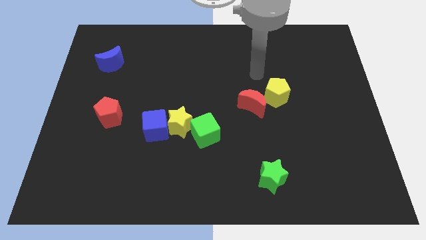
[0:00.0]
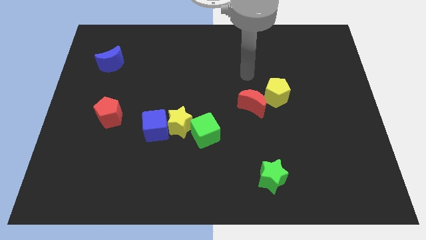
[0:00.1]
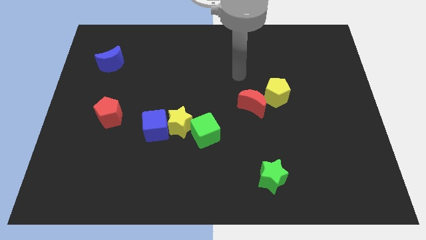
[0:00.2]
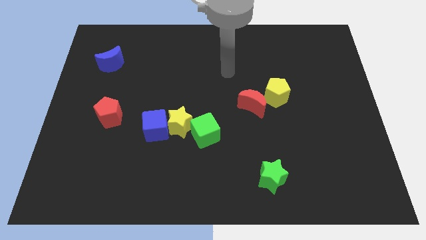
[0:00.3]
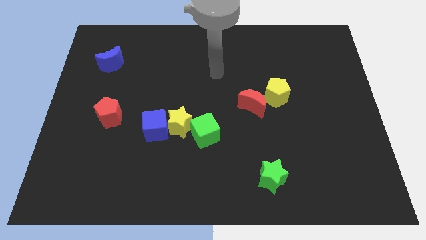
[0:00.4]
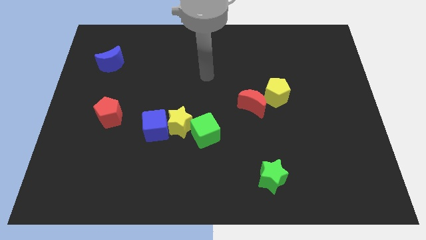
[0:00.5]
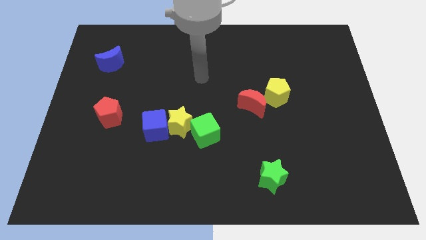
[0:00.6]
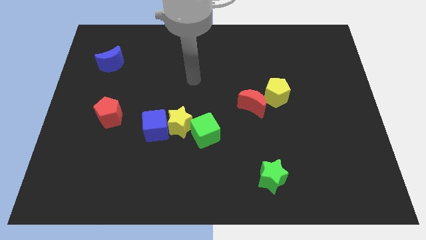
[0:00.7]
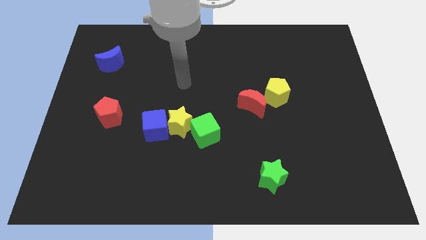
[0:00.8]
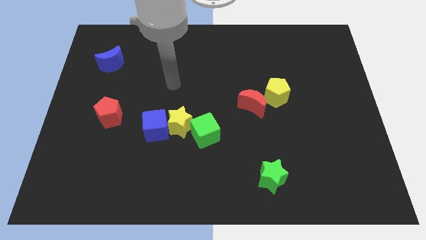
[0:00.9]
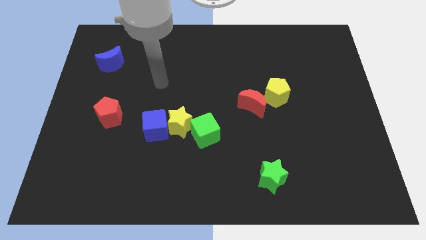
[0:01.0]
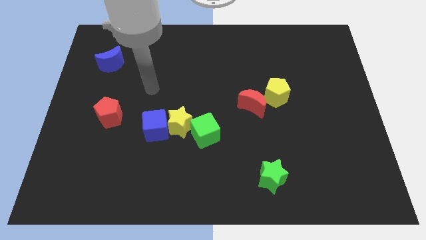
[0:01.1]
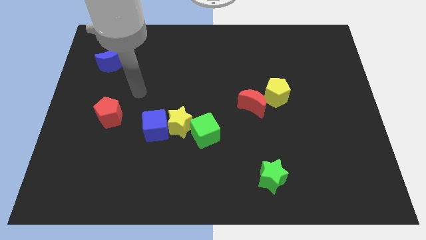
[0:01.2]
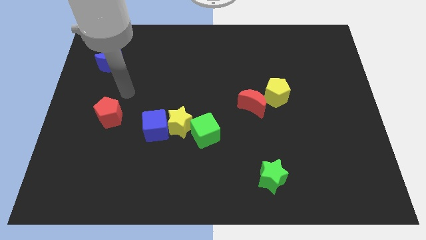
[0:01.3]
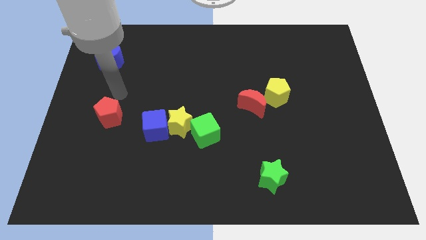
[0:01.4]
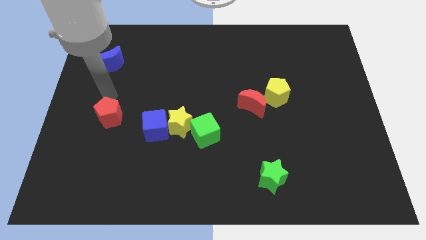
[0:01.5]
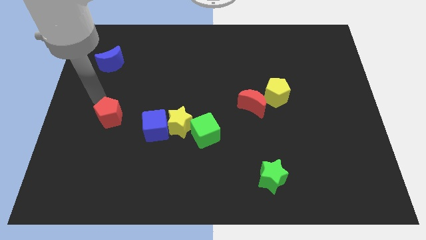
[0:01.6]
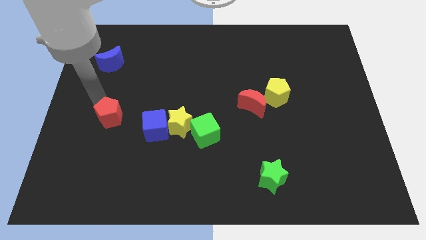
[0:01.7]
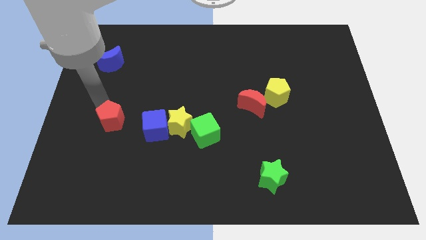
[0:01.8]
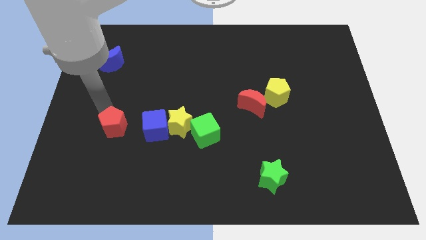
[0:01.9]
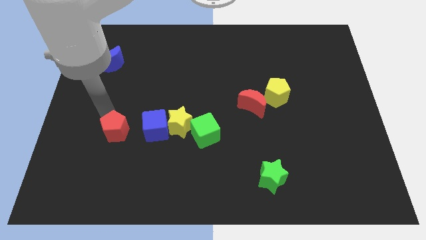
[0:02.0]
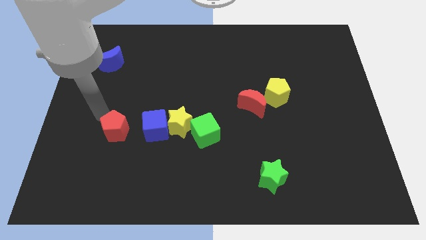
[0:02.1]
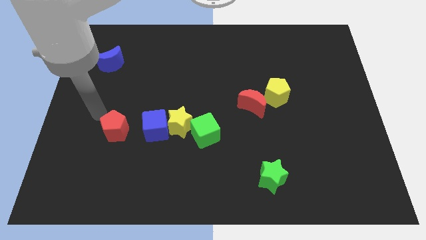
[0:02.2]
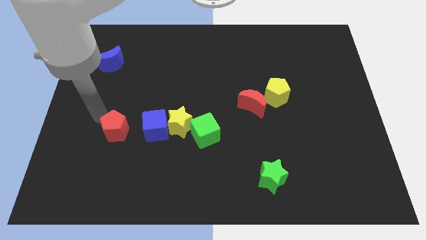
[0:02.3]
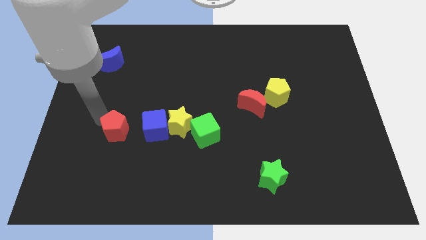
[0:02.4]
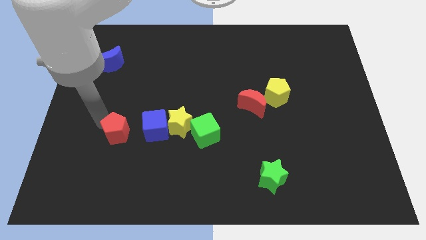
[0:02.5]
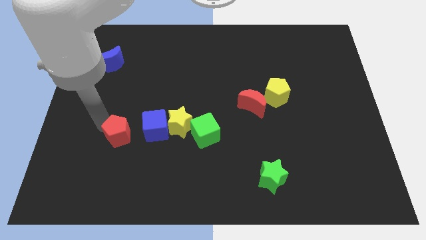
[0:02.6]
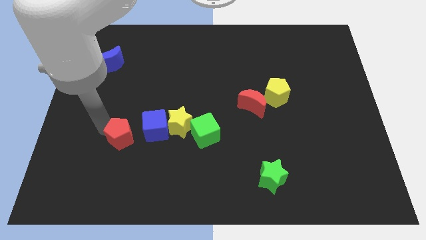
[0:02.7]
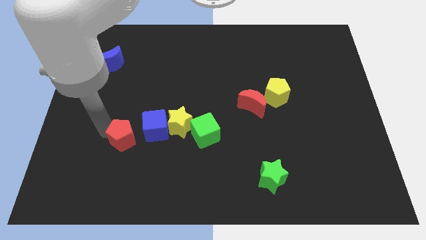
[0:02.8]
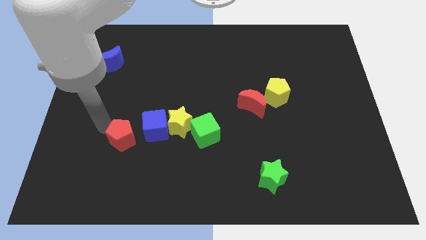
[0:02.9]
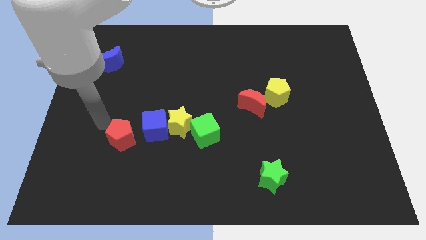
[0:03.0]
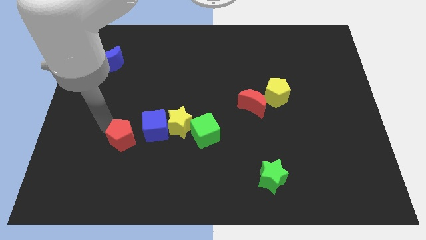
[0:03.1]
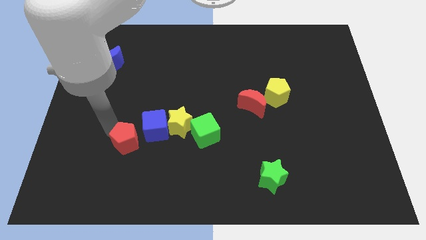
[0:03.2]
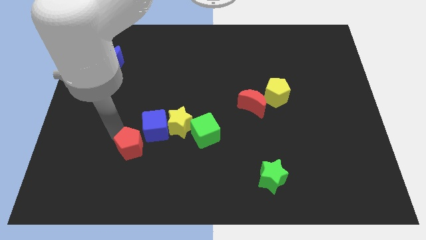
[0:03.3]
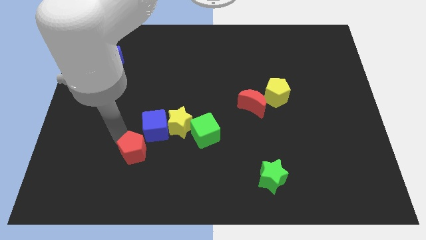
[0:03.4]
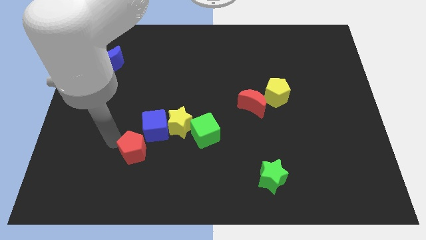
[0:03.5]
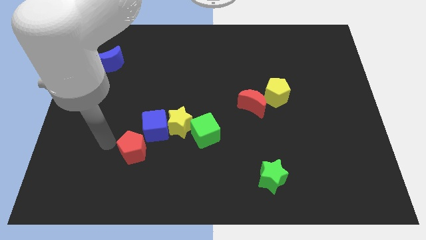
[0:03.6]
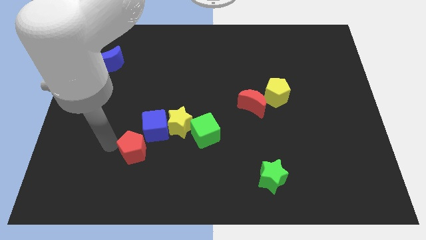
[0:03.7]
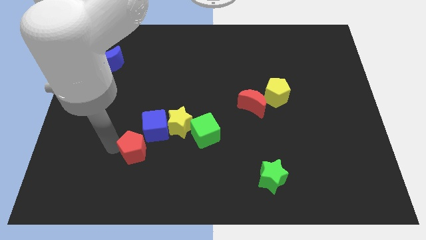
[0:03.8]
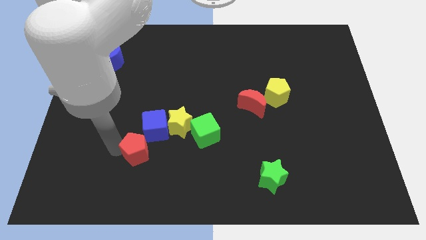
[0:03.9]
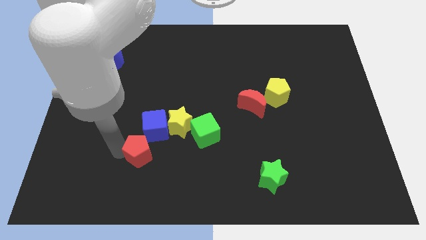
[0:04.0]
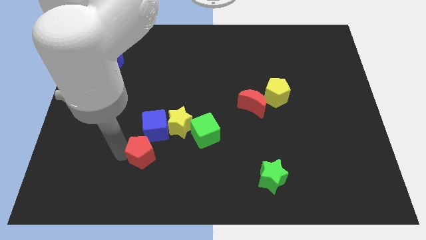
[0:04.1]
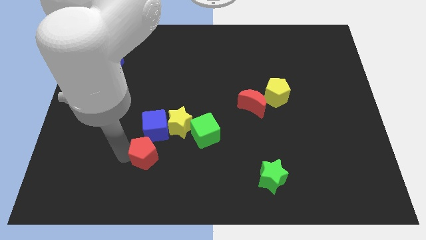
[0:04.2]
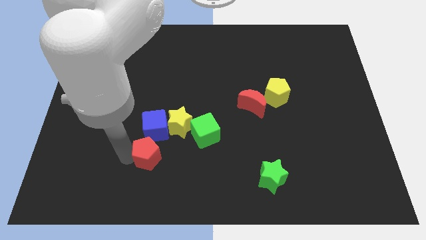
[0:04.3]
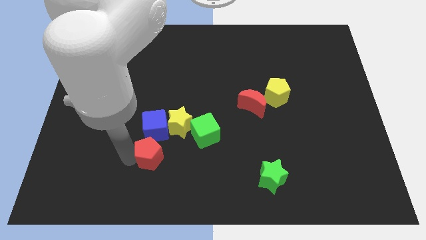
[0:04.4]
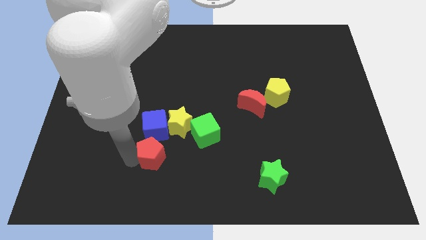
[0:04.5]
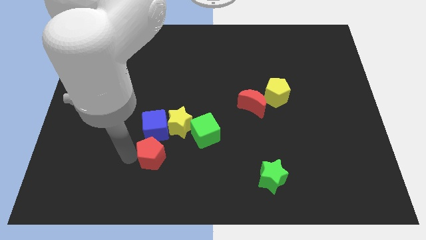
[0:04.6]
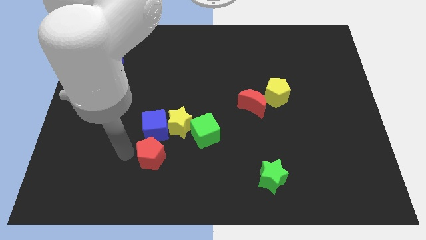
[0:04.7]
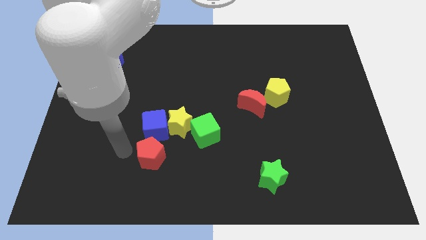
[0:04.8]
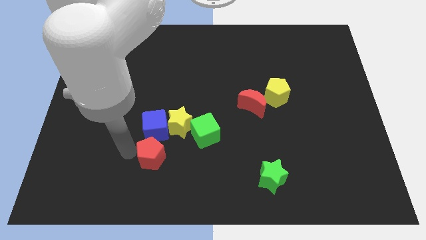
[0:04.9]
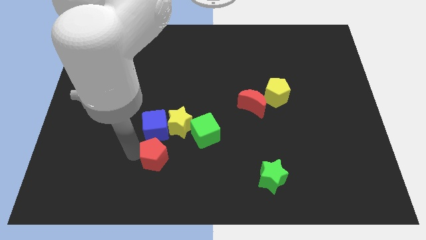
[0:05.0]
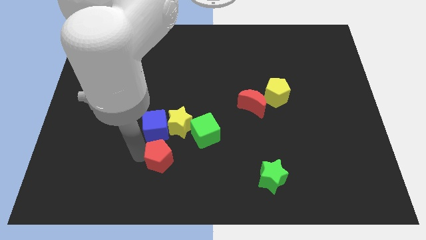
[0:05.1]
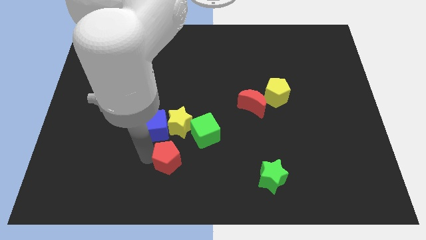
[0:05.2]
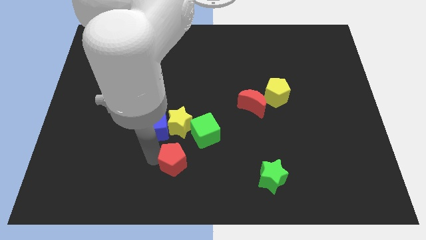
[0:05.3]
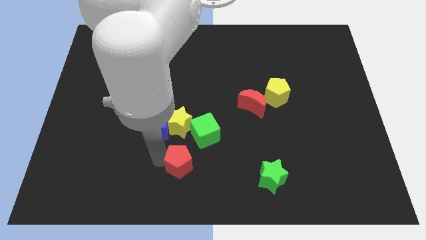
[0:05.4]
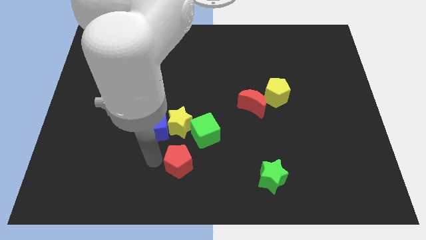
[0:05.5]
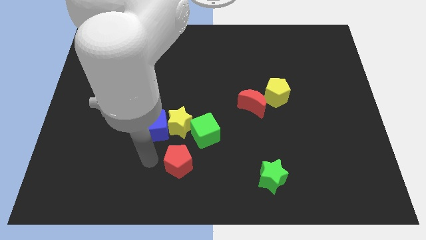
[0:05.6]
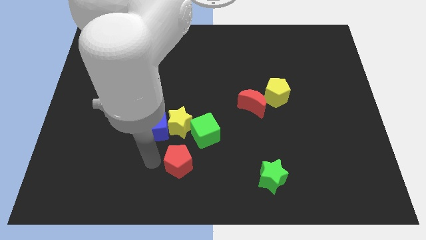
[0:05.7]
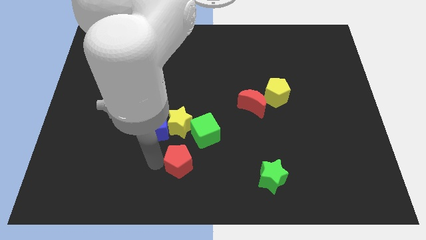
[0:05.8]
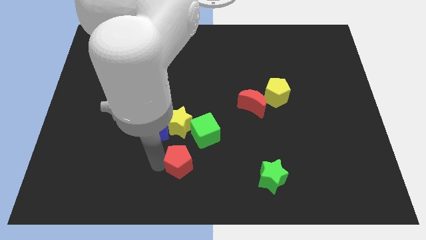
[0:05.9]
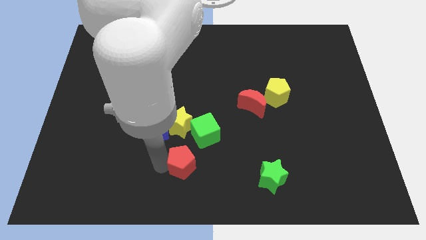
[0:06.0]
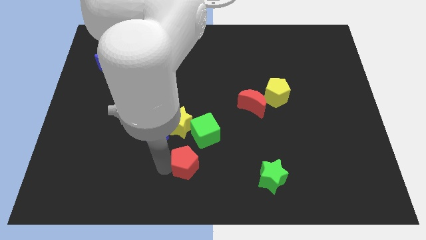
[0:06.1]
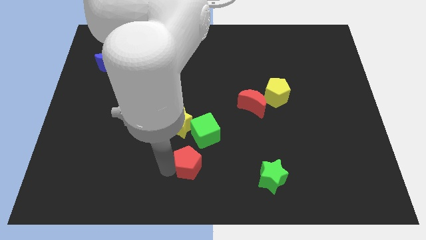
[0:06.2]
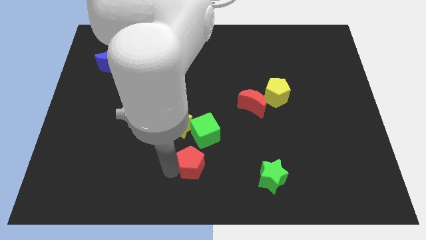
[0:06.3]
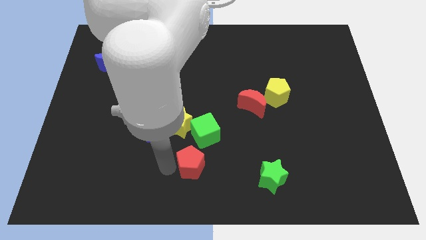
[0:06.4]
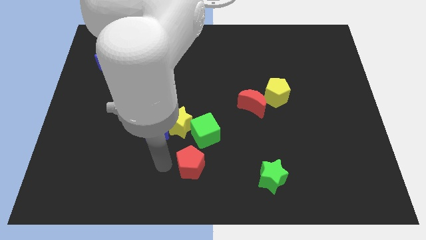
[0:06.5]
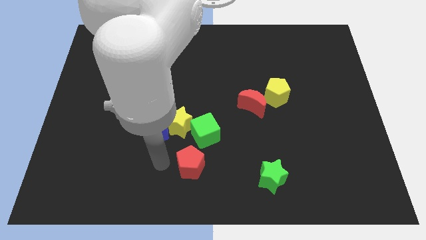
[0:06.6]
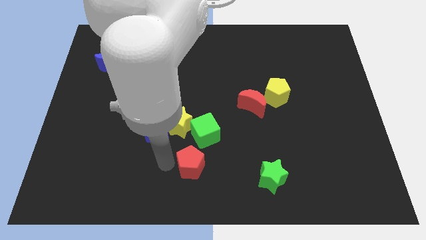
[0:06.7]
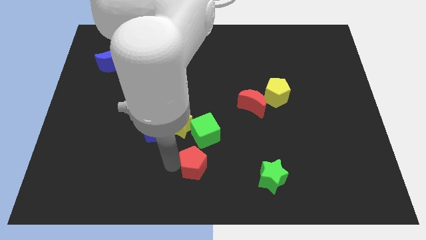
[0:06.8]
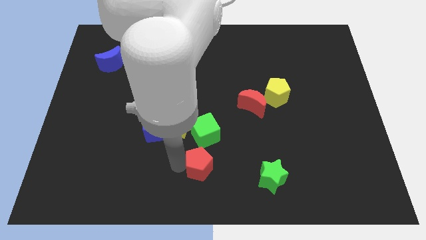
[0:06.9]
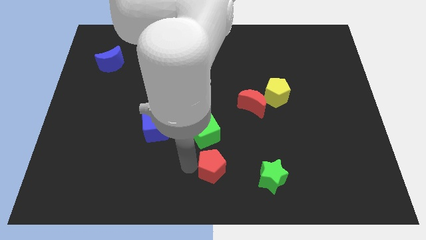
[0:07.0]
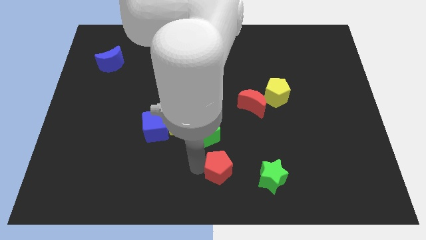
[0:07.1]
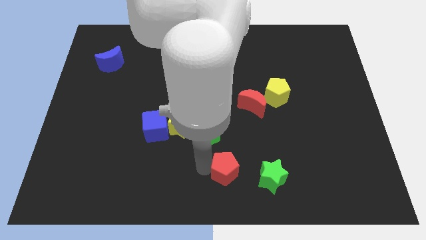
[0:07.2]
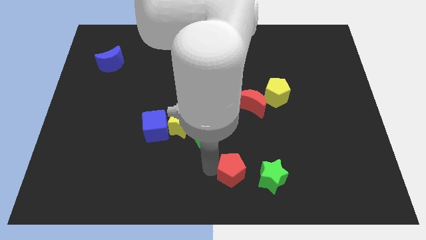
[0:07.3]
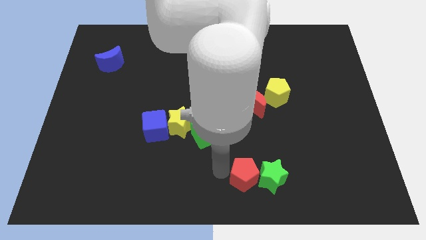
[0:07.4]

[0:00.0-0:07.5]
slide the red pentagon to the green star

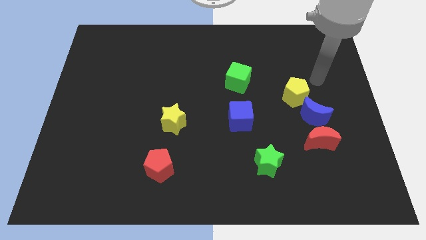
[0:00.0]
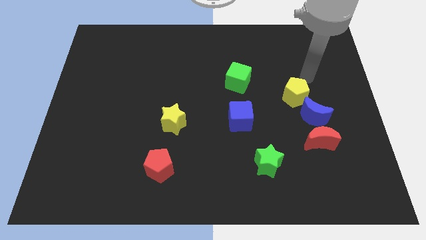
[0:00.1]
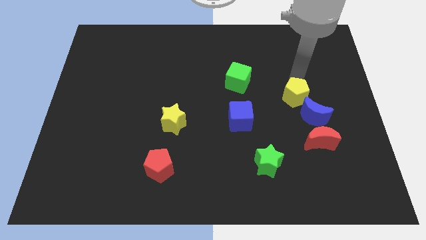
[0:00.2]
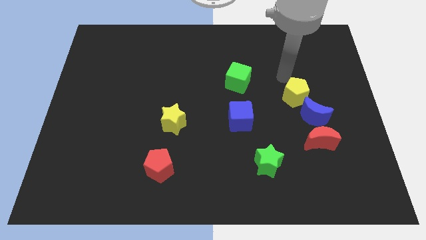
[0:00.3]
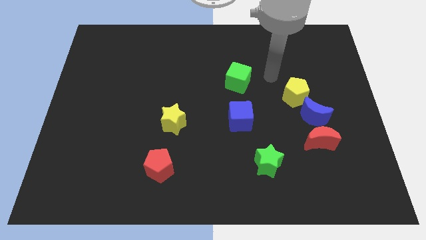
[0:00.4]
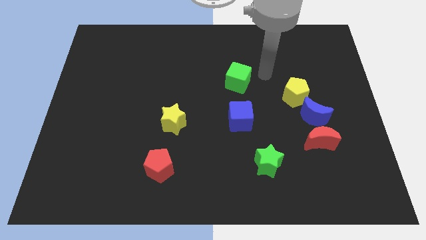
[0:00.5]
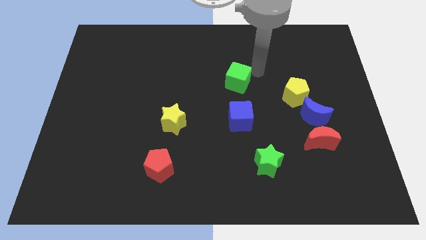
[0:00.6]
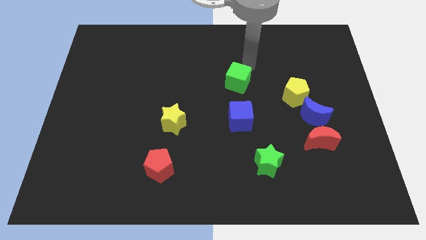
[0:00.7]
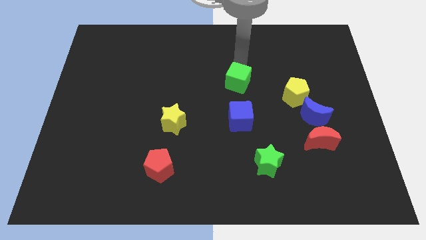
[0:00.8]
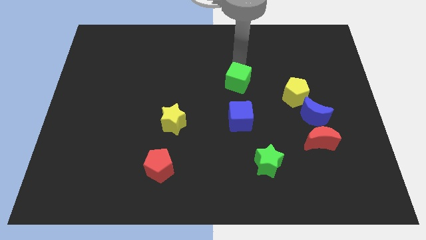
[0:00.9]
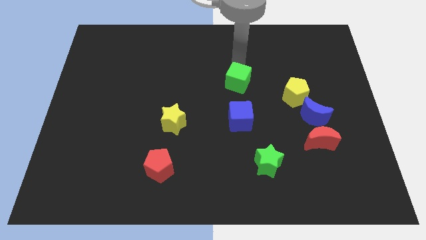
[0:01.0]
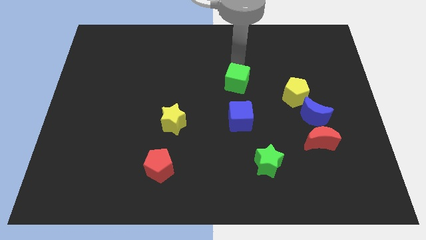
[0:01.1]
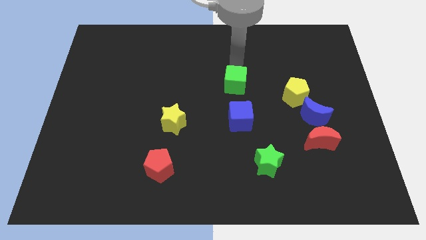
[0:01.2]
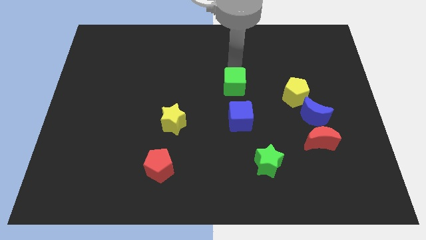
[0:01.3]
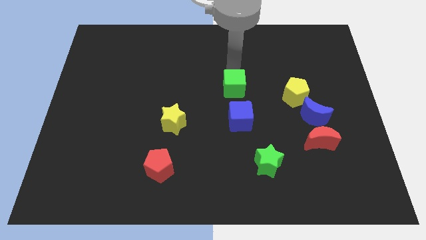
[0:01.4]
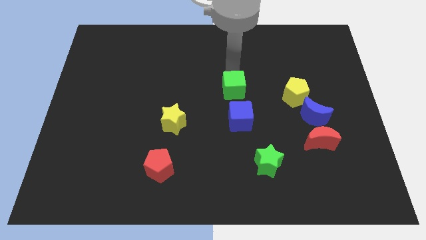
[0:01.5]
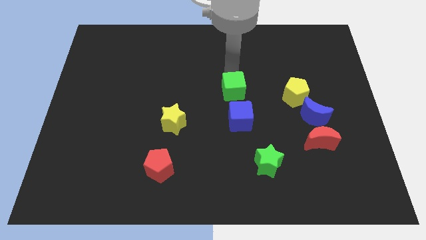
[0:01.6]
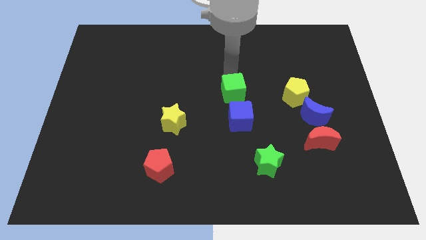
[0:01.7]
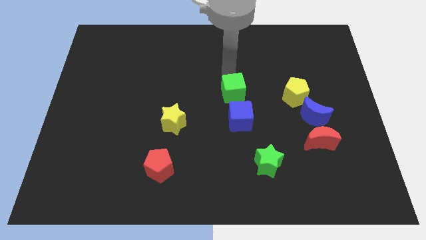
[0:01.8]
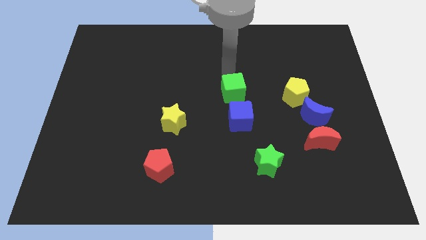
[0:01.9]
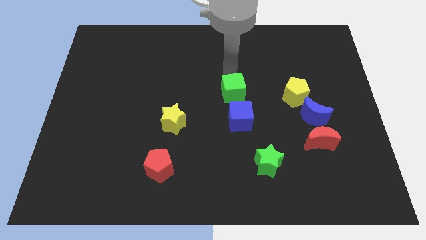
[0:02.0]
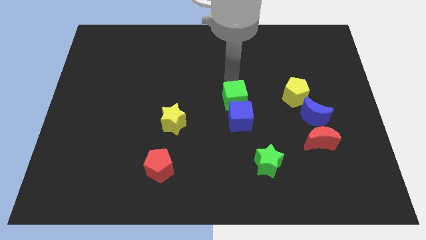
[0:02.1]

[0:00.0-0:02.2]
push the green cube towards the blue cube
